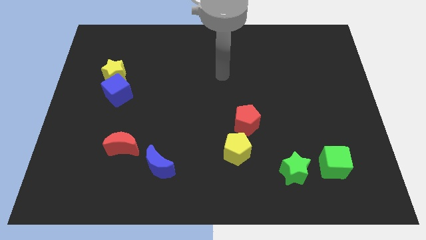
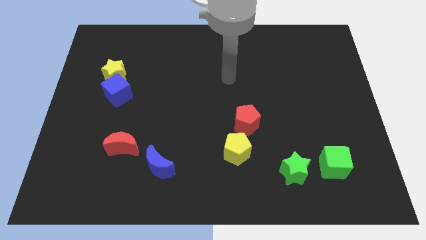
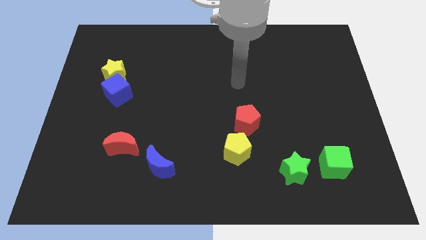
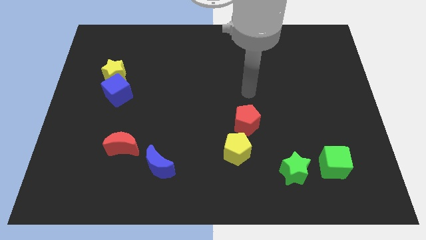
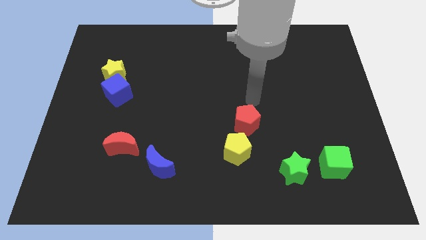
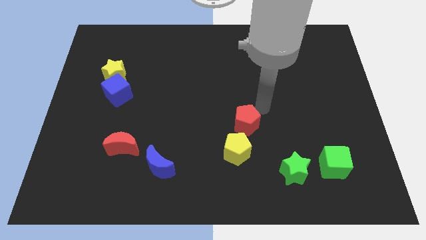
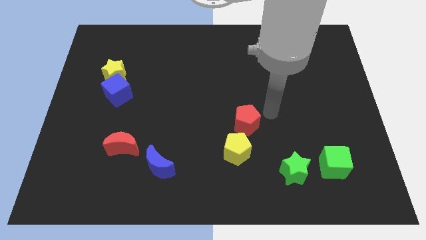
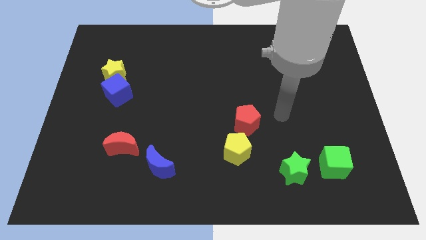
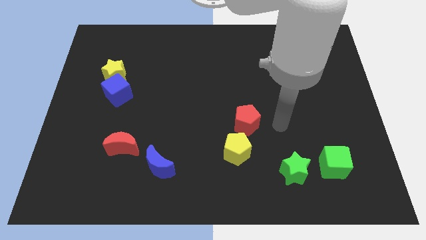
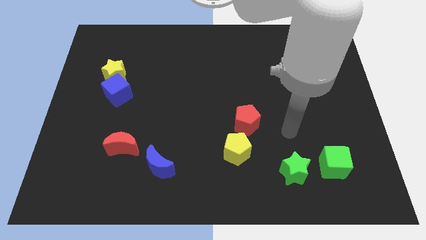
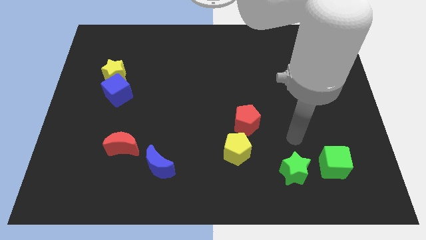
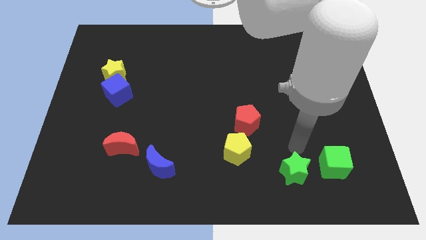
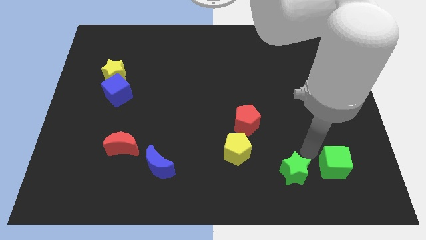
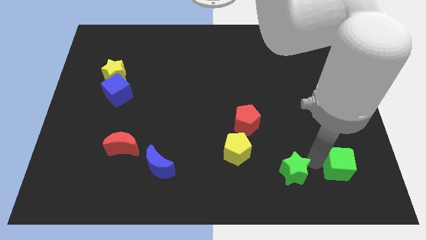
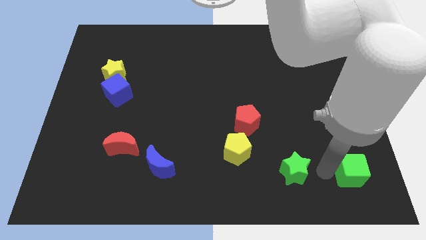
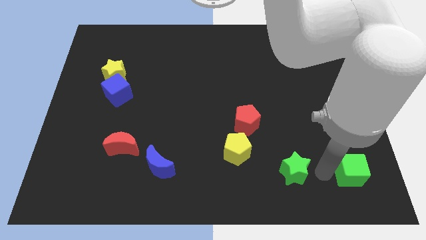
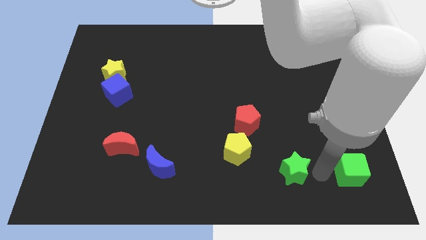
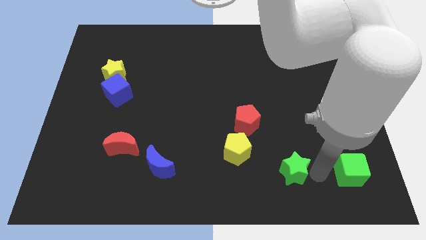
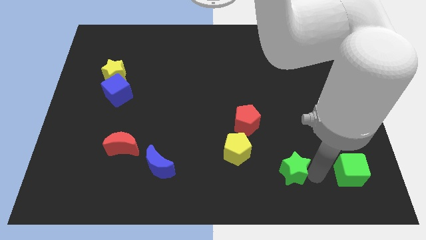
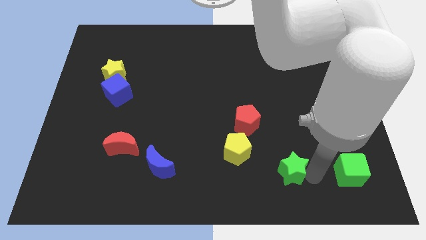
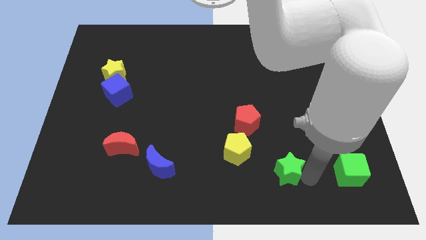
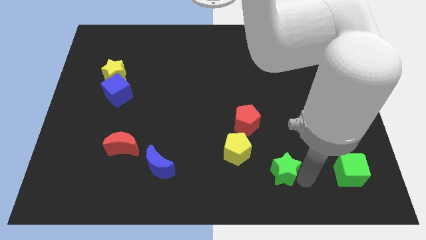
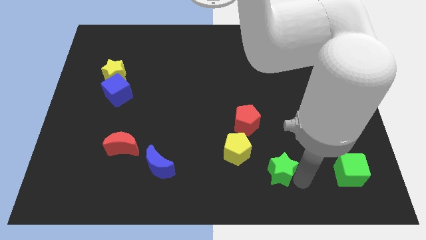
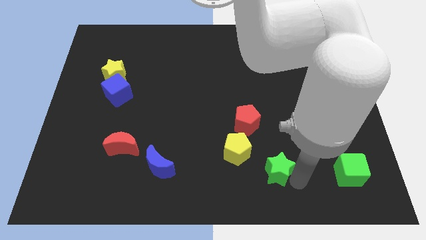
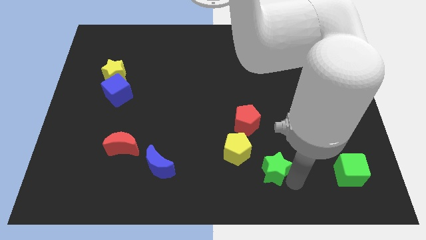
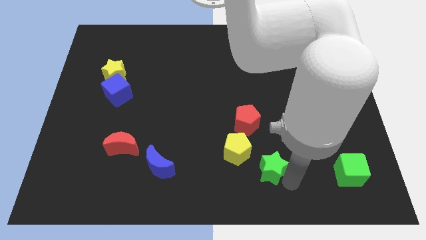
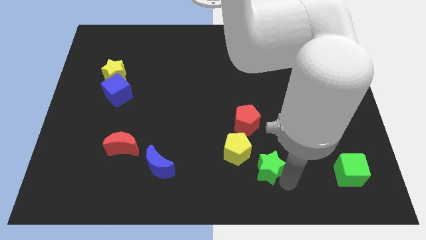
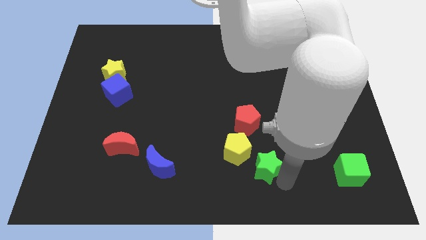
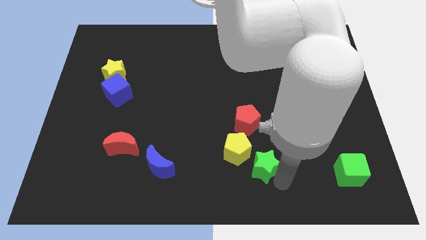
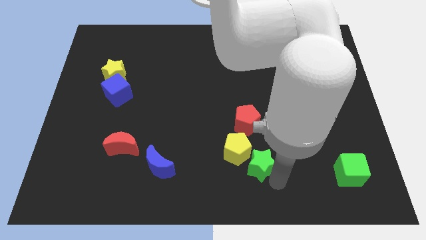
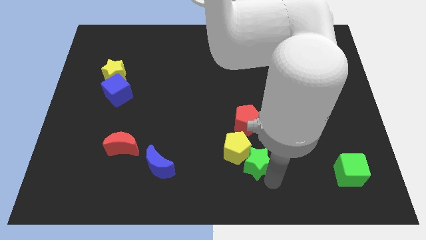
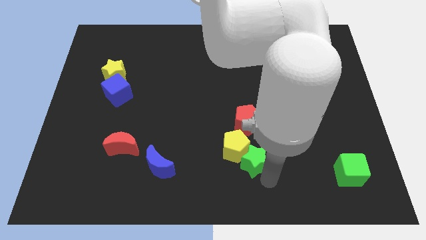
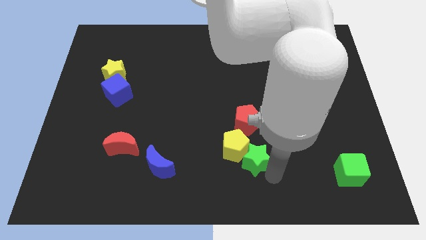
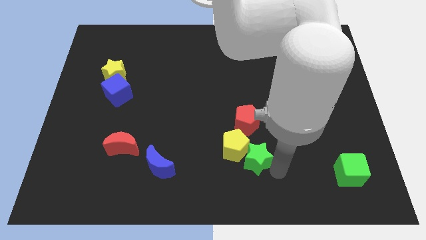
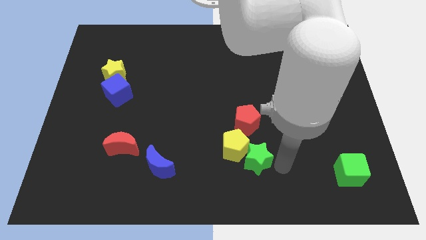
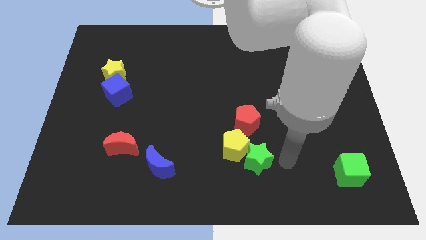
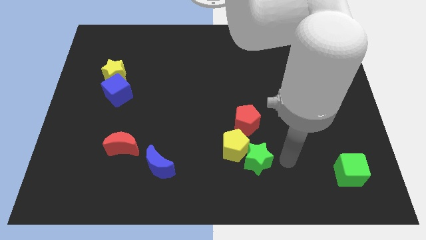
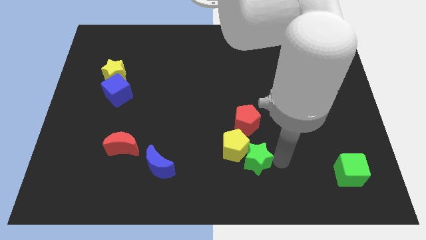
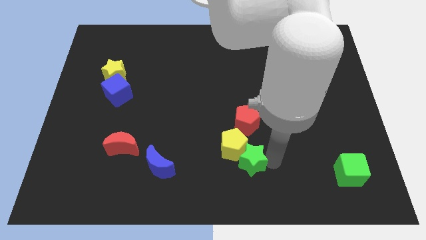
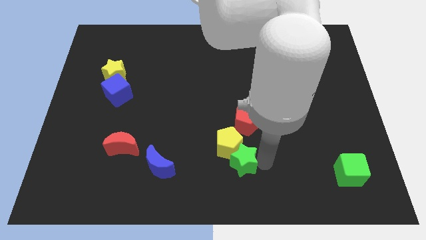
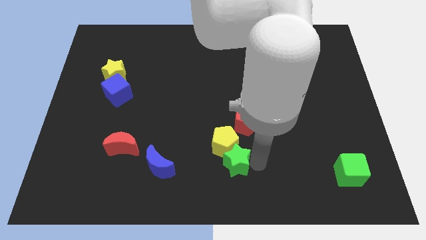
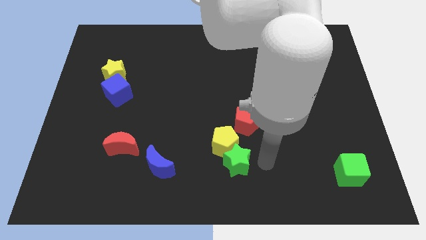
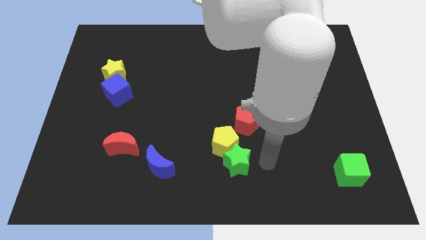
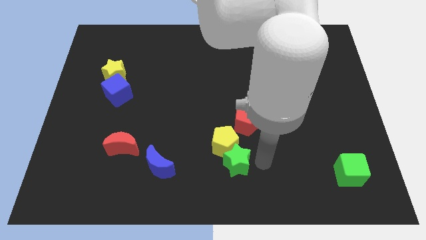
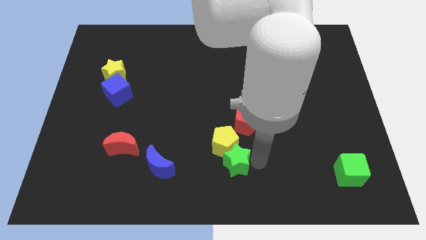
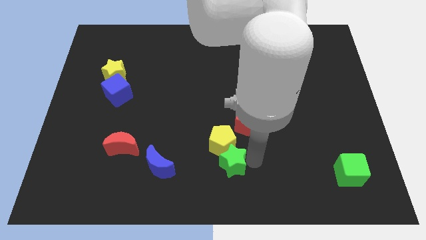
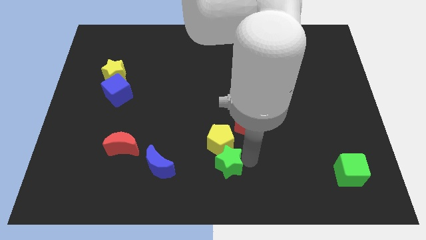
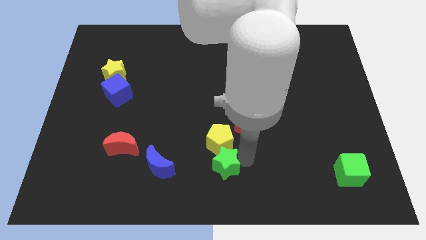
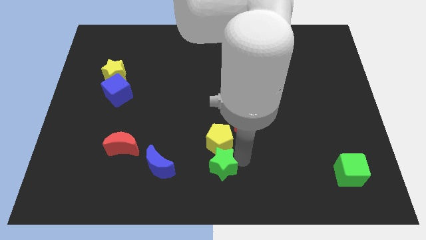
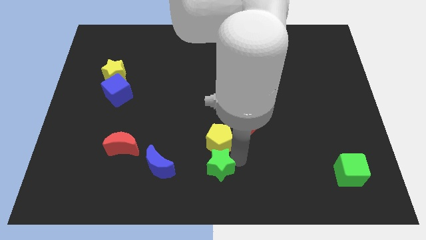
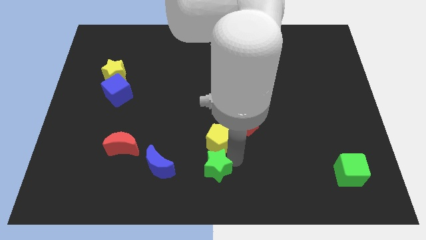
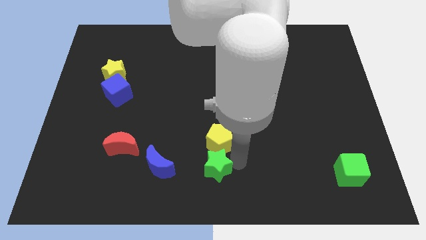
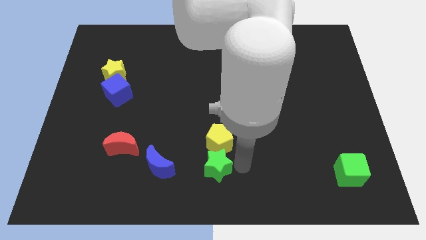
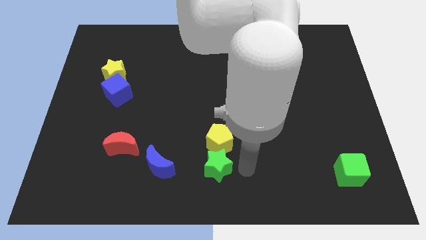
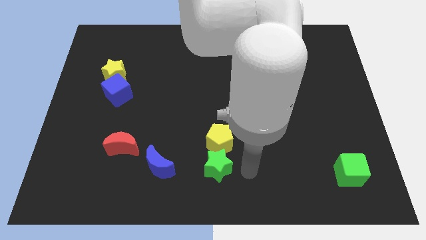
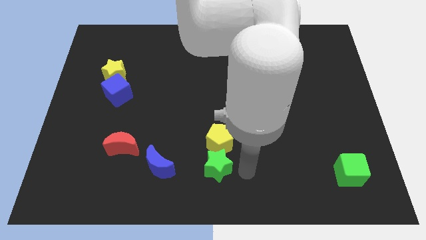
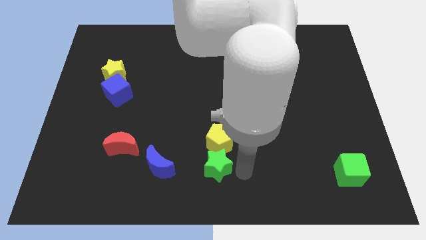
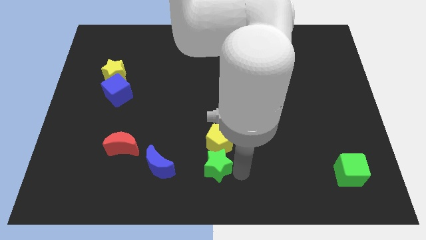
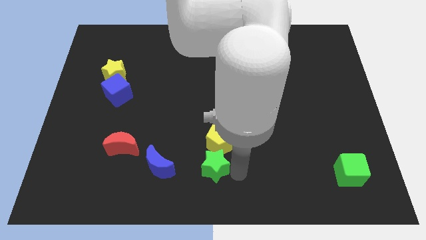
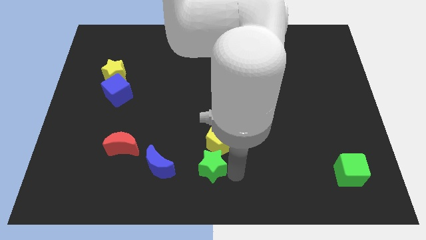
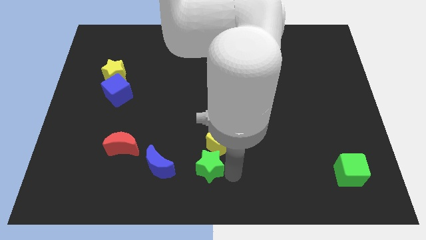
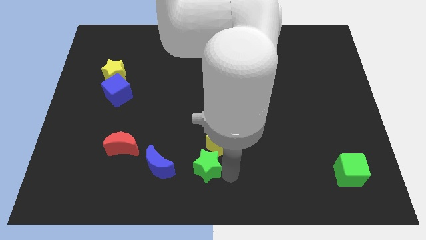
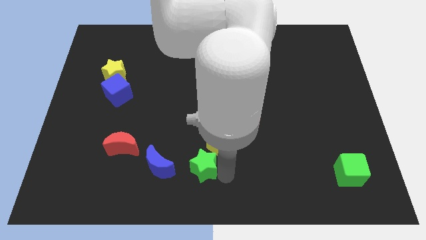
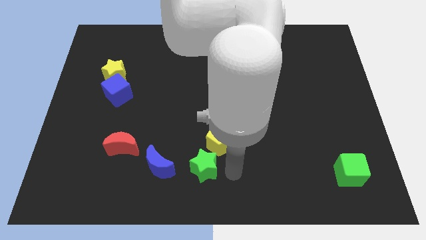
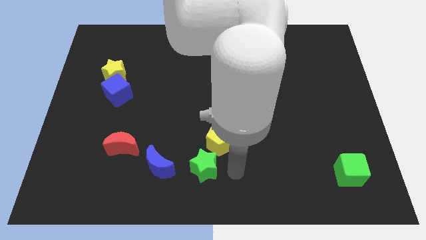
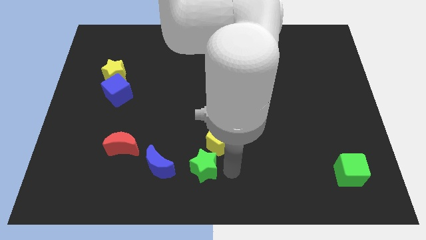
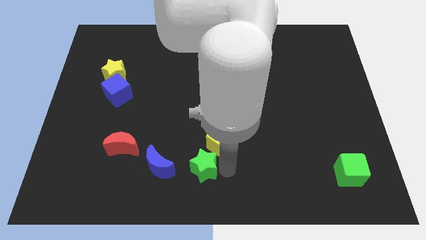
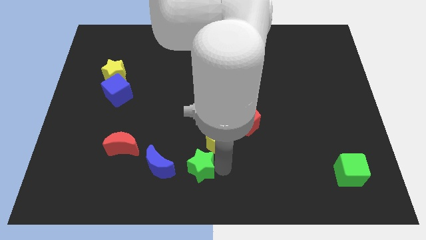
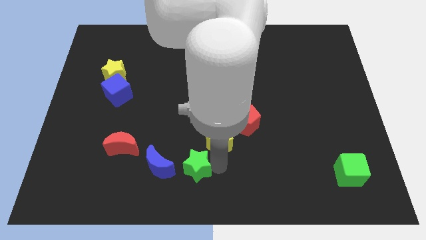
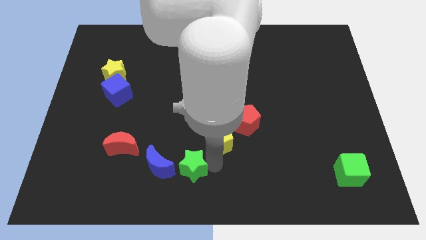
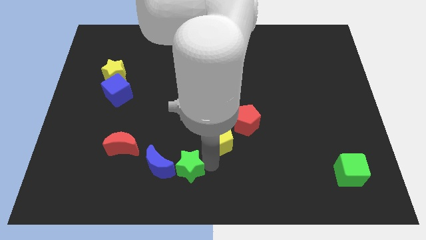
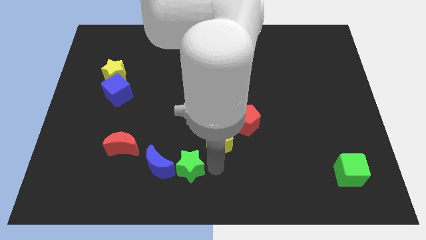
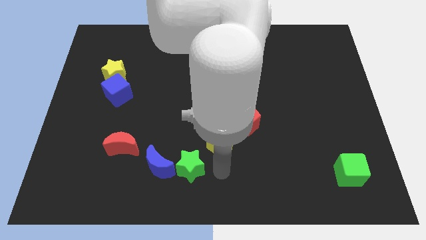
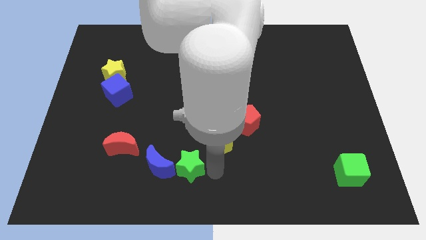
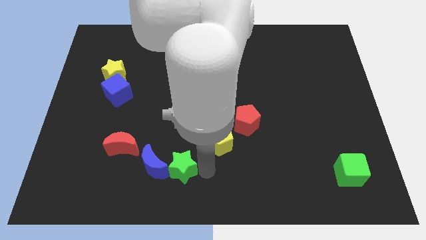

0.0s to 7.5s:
move the green star towards the blue moon

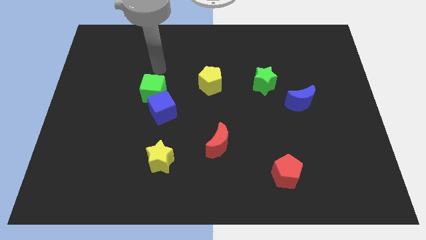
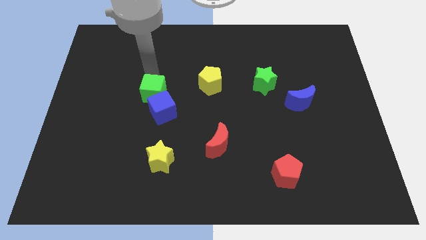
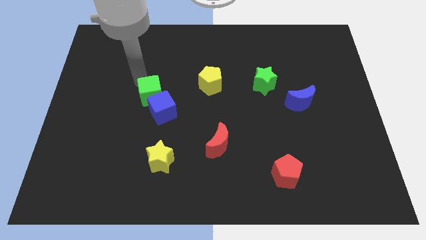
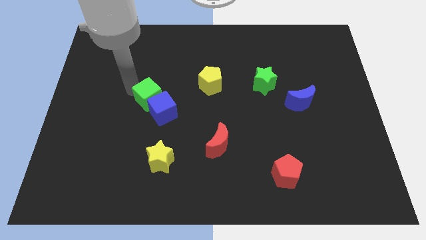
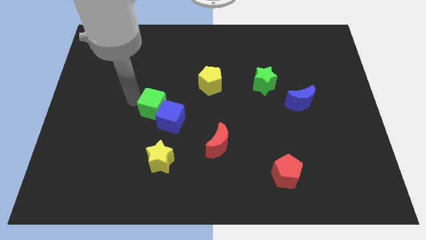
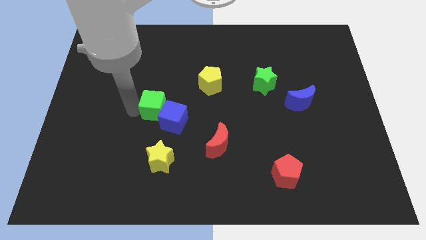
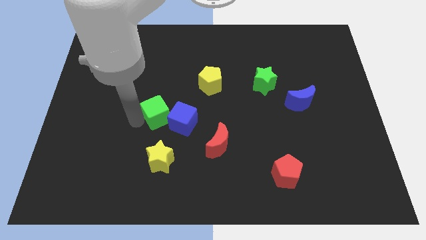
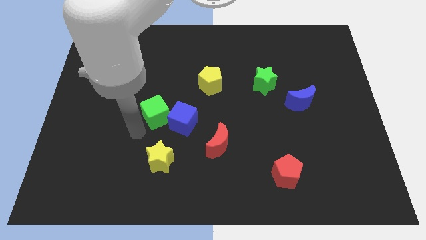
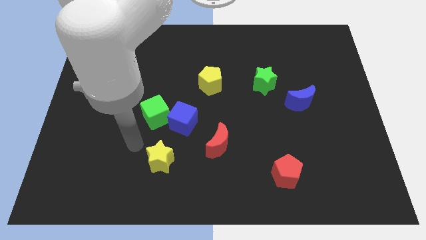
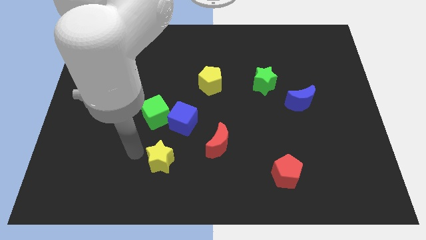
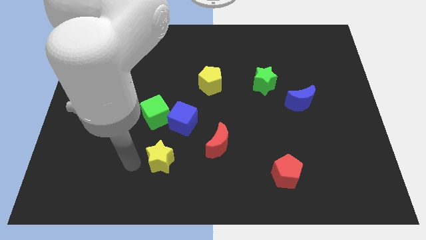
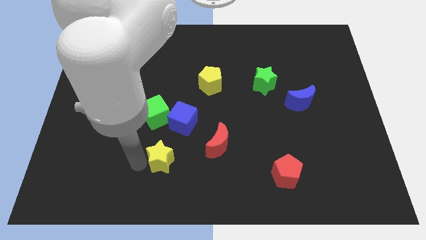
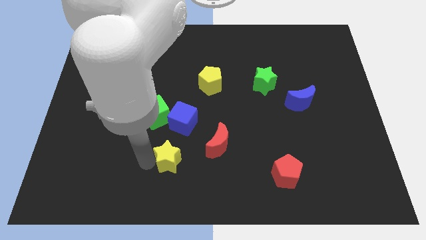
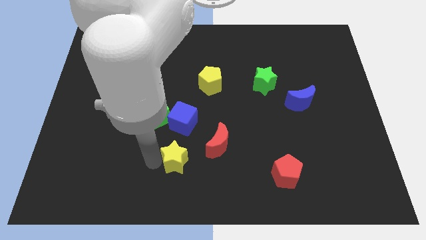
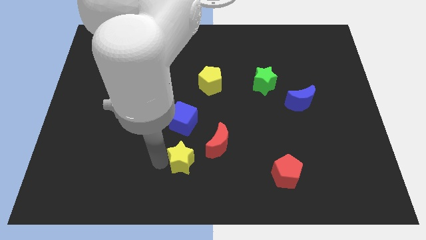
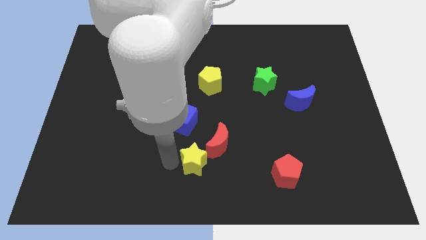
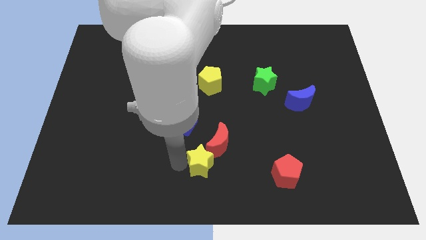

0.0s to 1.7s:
slide the yellow star to the red moon
